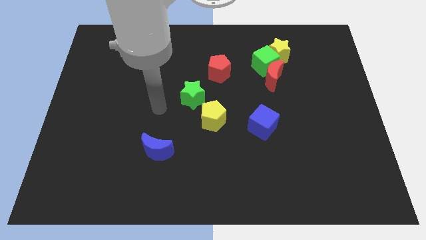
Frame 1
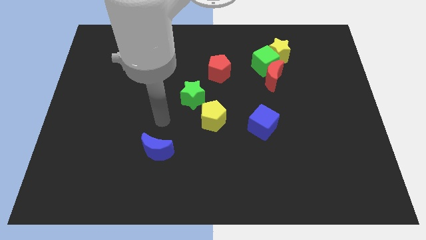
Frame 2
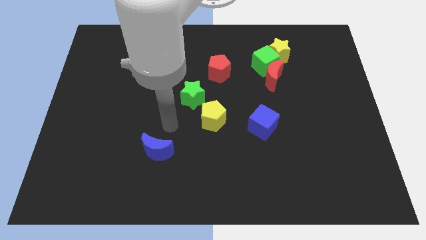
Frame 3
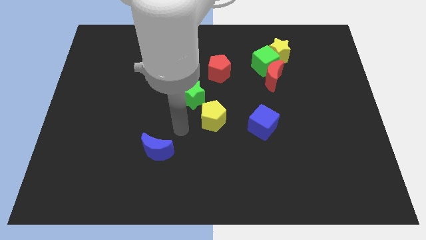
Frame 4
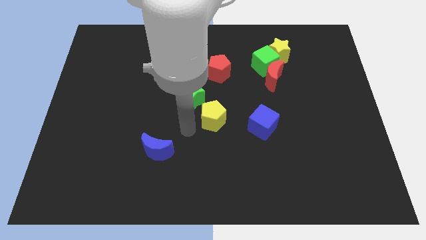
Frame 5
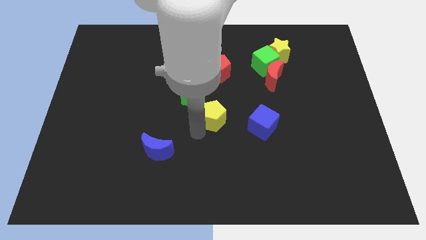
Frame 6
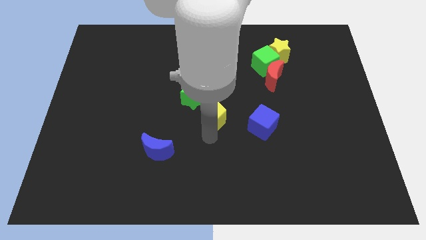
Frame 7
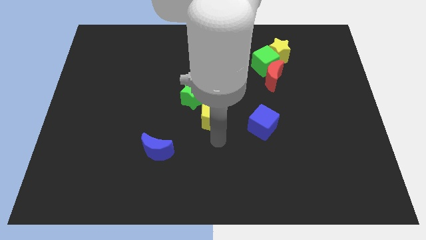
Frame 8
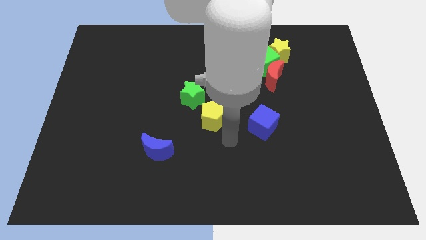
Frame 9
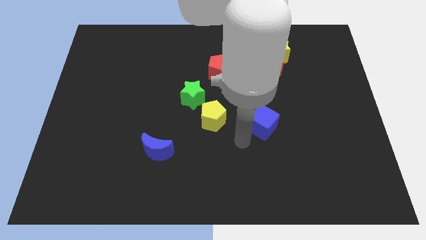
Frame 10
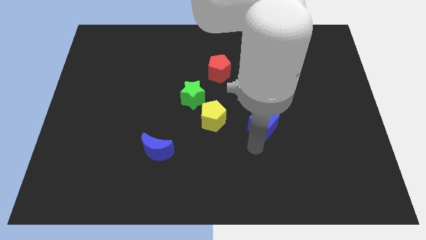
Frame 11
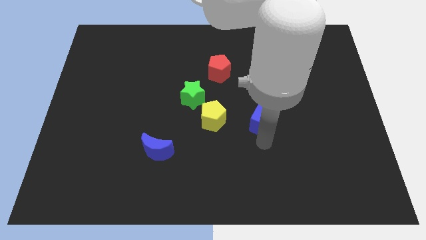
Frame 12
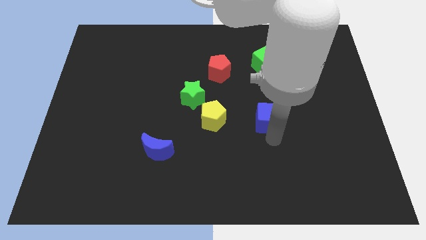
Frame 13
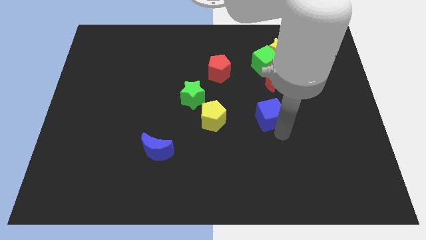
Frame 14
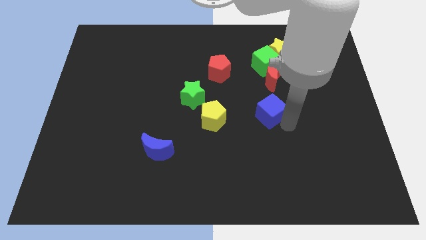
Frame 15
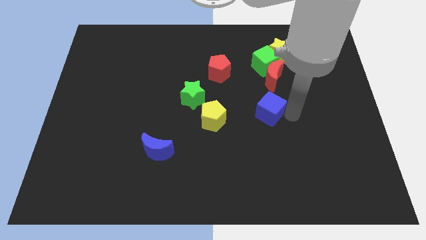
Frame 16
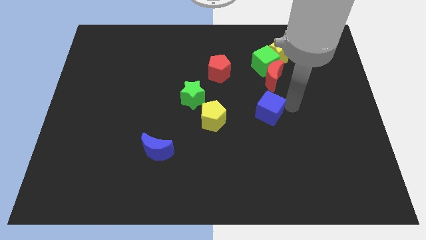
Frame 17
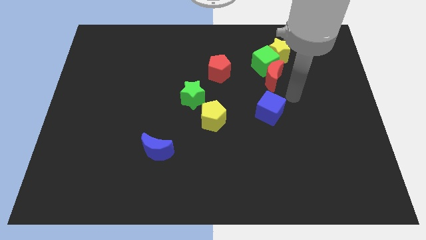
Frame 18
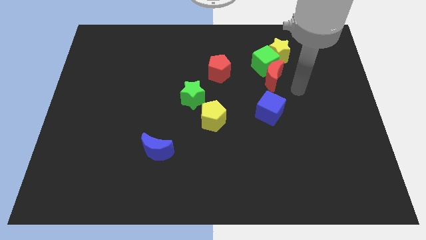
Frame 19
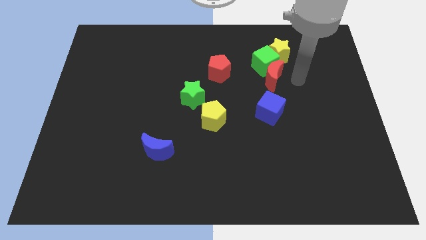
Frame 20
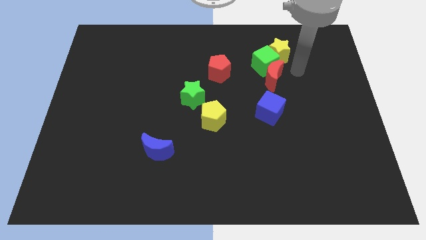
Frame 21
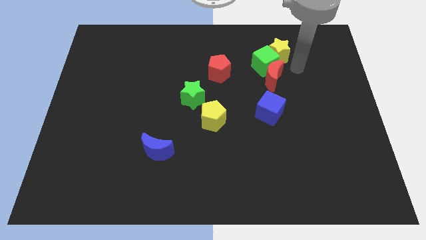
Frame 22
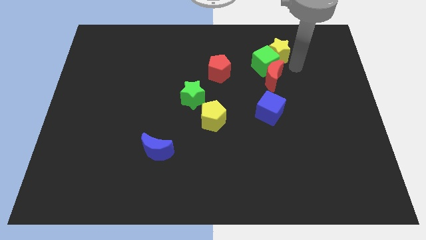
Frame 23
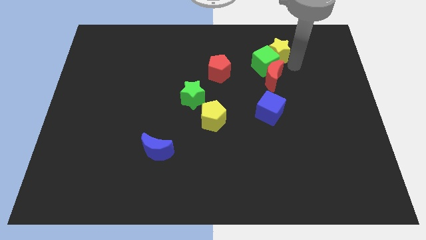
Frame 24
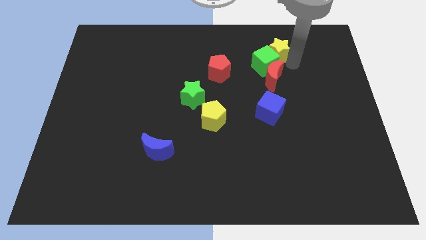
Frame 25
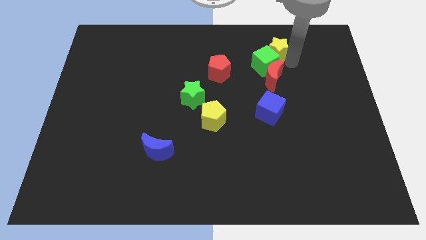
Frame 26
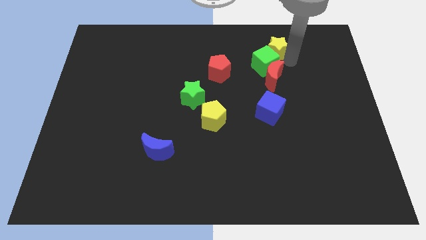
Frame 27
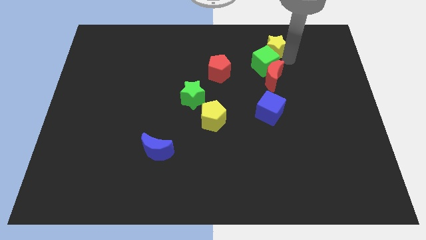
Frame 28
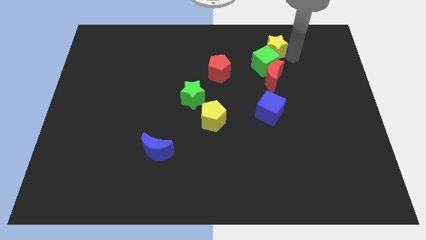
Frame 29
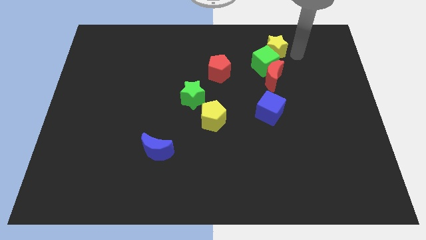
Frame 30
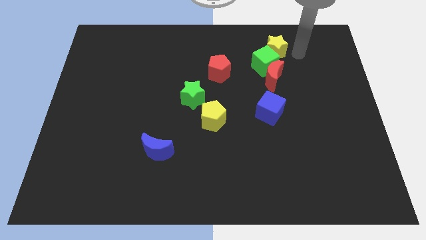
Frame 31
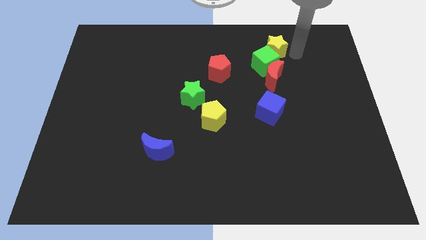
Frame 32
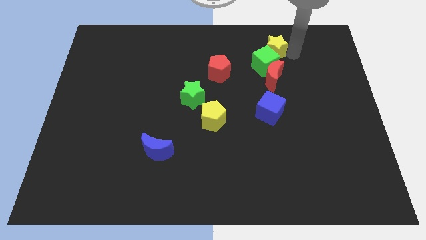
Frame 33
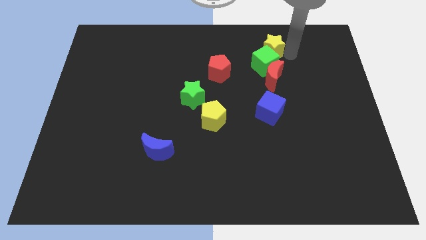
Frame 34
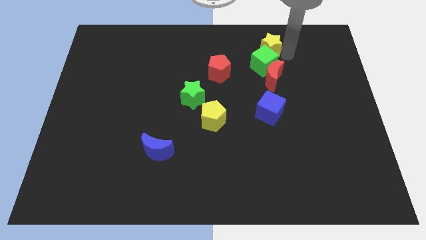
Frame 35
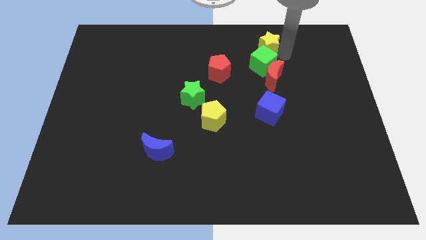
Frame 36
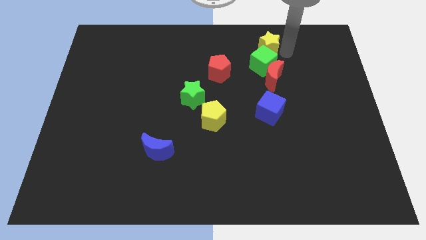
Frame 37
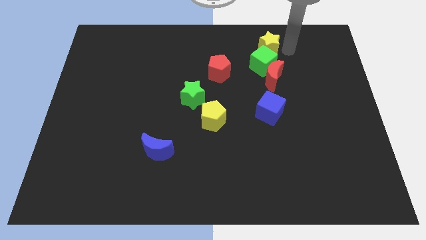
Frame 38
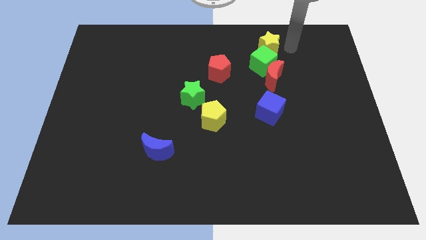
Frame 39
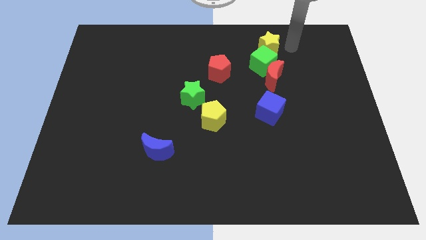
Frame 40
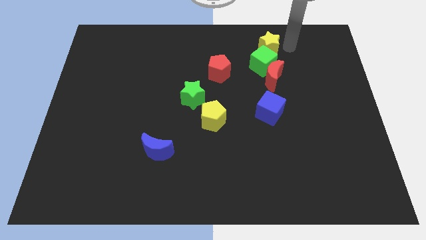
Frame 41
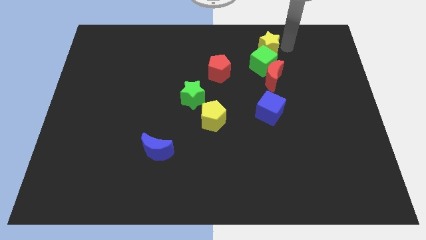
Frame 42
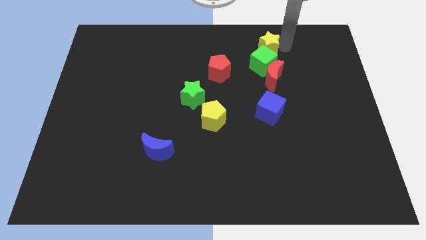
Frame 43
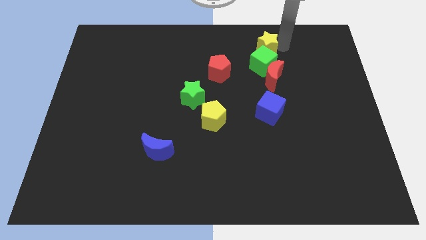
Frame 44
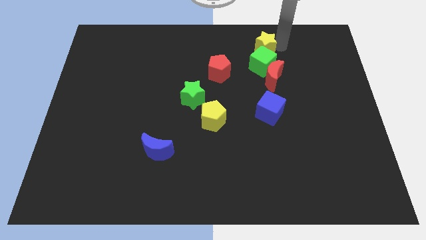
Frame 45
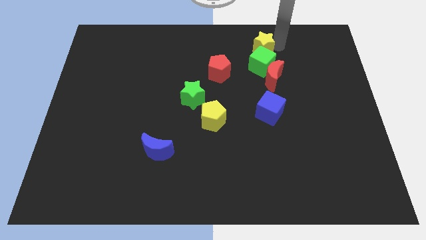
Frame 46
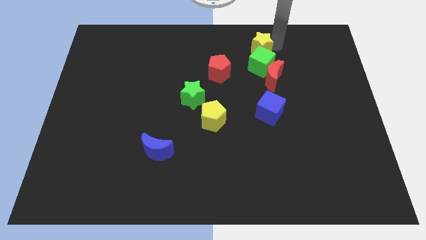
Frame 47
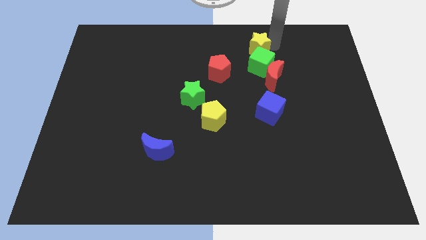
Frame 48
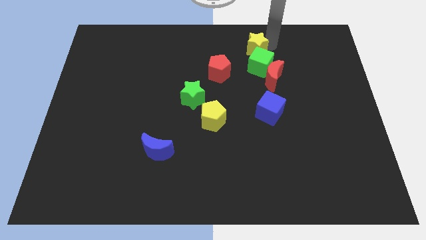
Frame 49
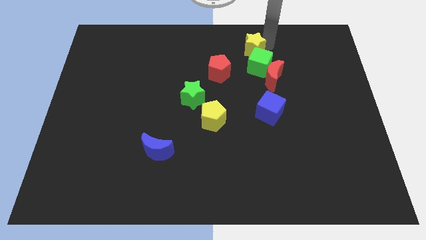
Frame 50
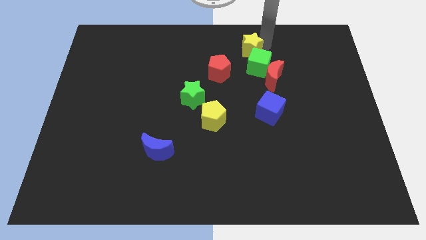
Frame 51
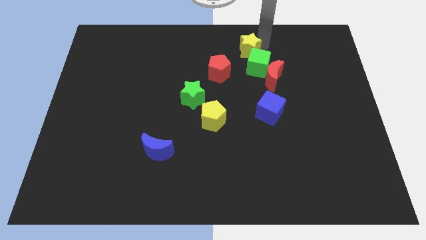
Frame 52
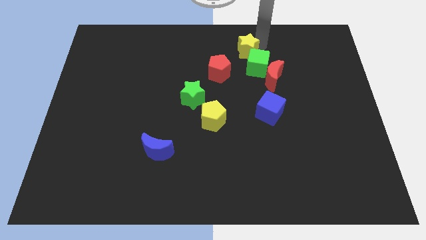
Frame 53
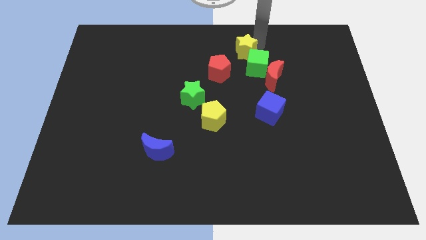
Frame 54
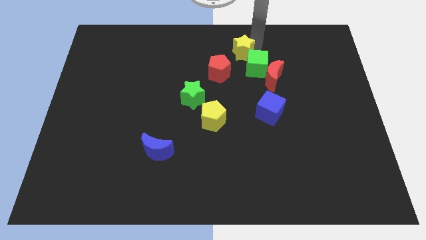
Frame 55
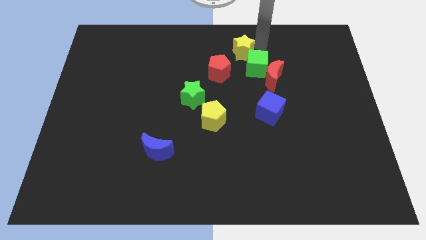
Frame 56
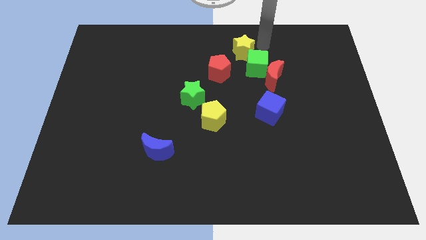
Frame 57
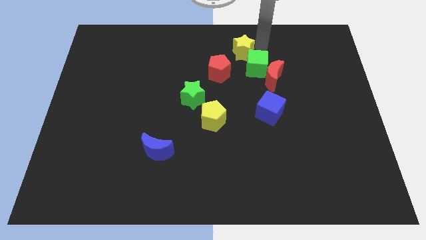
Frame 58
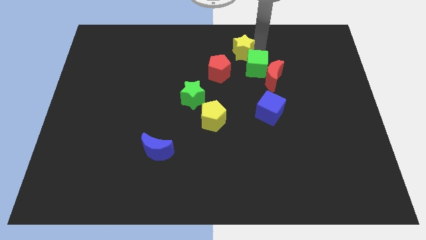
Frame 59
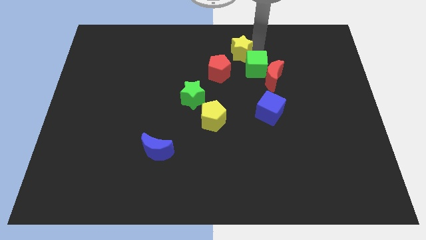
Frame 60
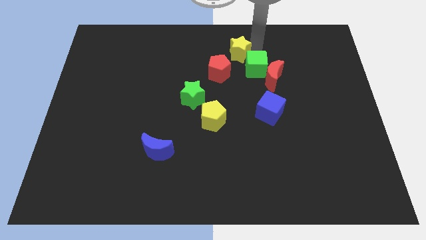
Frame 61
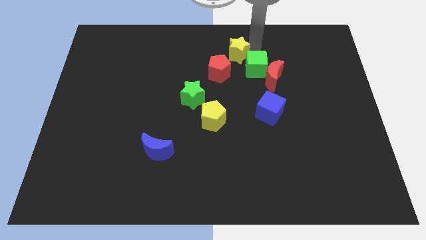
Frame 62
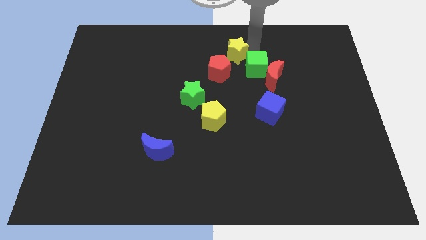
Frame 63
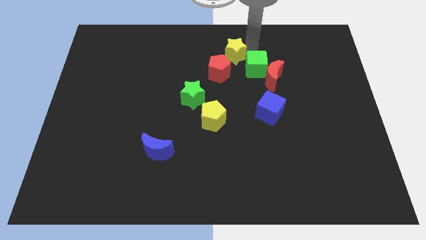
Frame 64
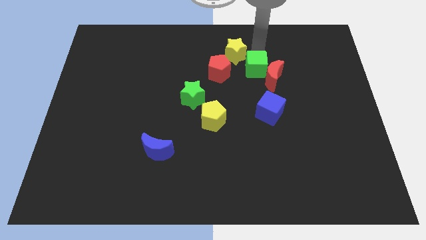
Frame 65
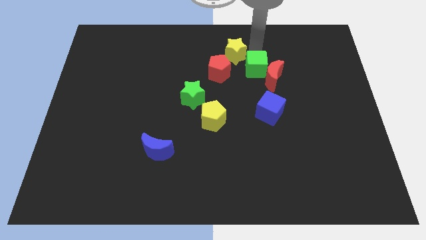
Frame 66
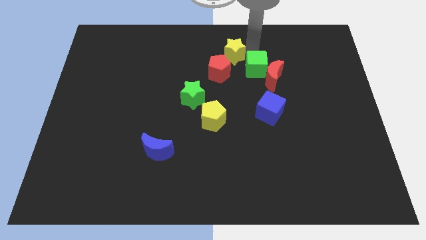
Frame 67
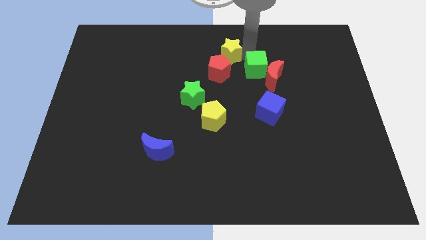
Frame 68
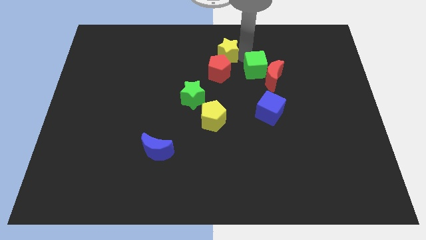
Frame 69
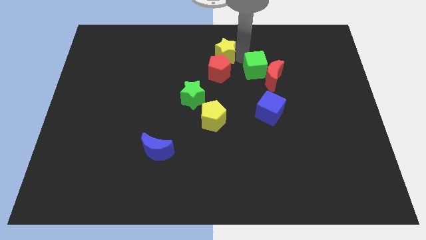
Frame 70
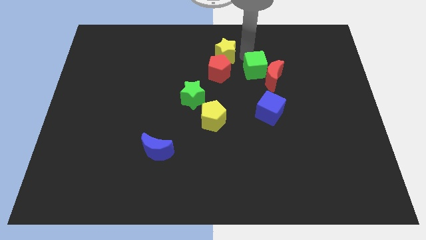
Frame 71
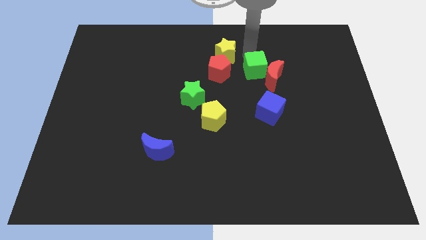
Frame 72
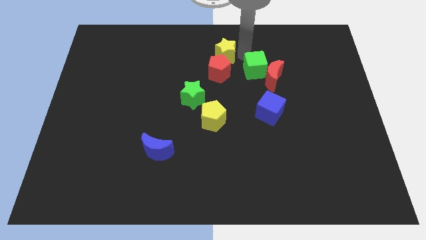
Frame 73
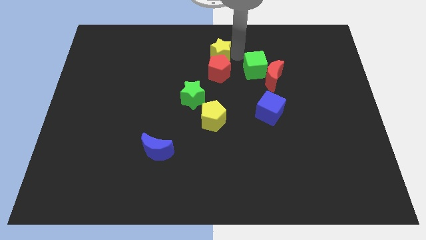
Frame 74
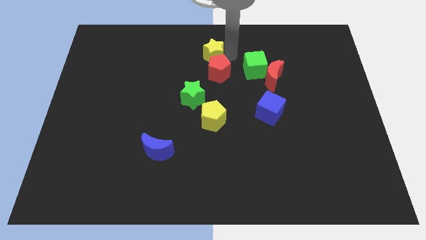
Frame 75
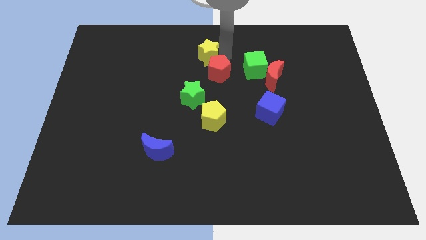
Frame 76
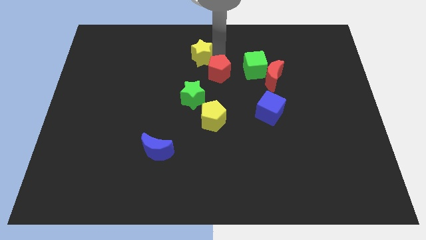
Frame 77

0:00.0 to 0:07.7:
slide the yellow star to the left

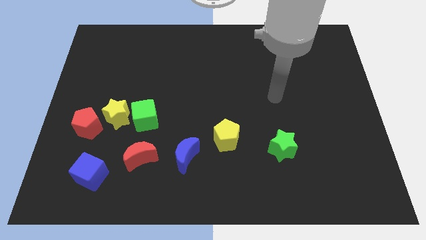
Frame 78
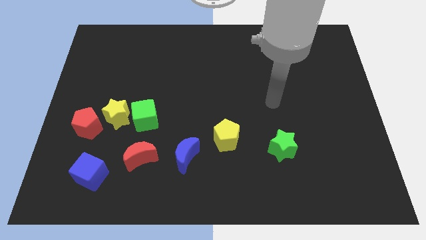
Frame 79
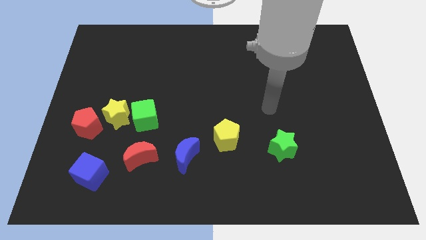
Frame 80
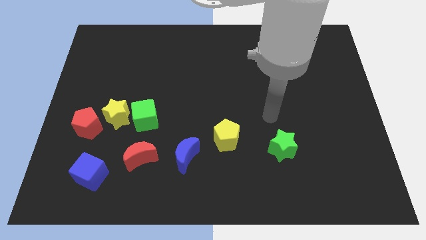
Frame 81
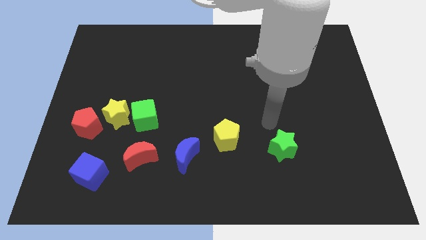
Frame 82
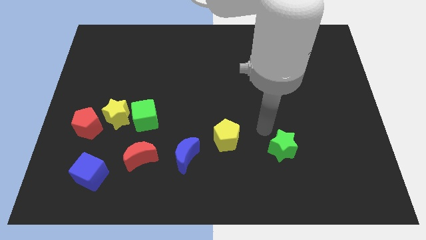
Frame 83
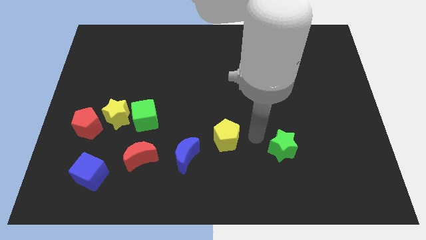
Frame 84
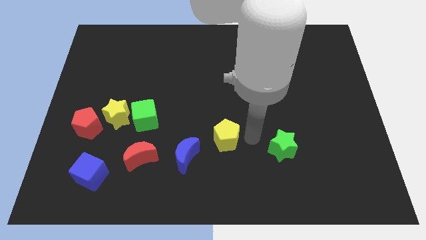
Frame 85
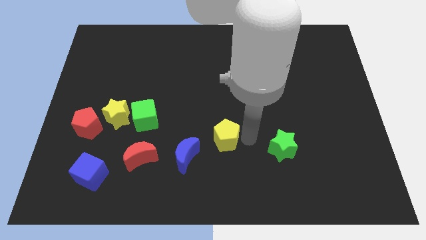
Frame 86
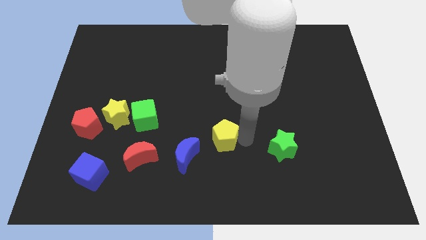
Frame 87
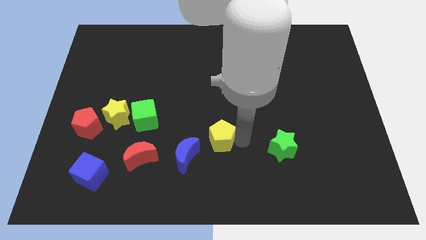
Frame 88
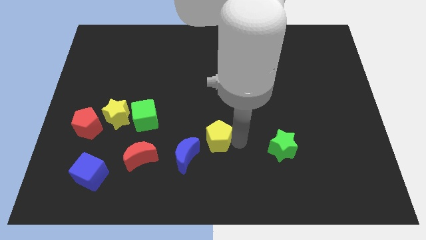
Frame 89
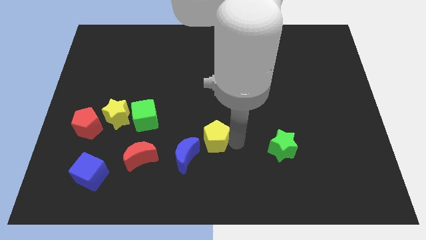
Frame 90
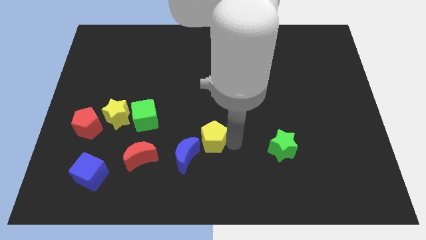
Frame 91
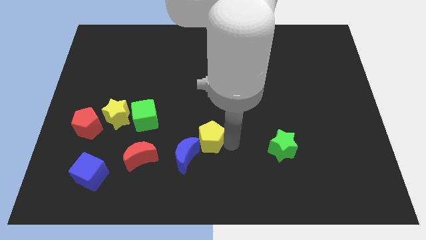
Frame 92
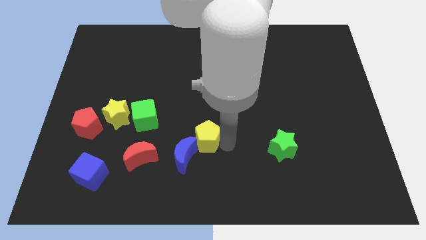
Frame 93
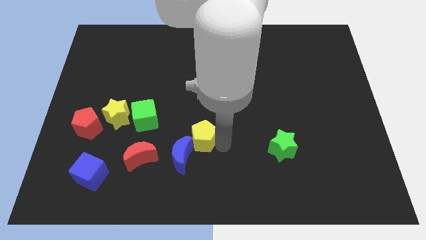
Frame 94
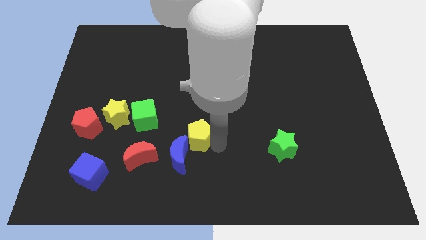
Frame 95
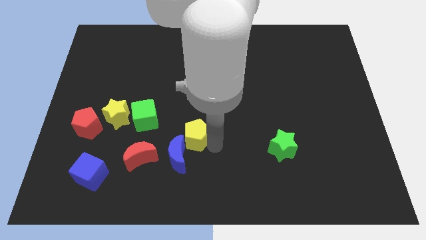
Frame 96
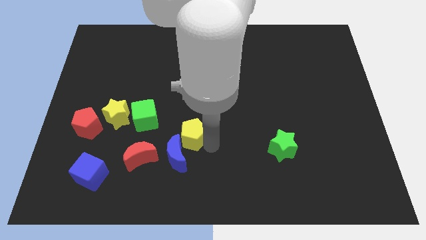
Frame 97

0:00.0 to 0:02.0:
slide the yellow pentagon to the left a little bit
